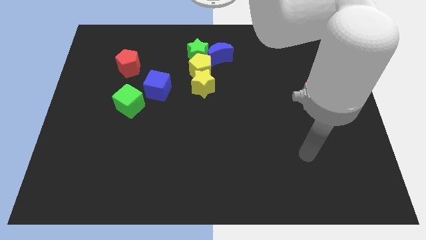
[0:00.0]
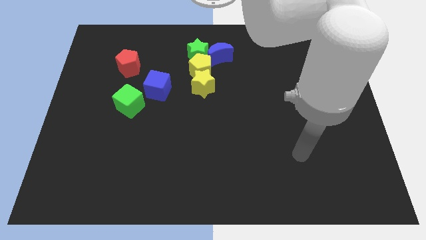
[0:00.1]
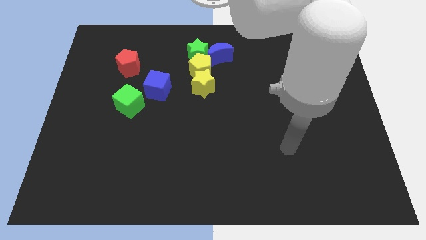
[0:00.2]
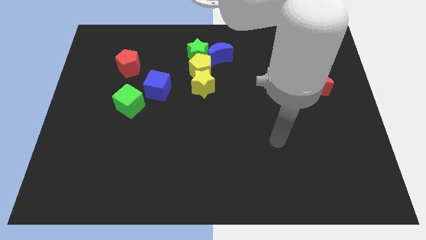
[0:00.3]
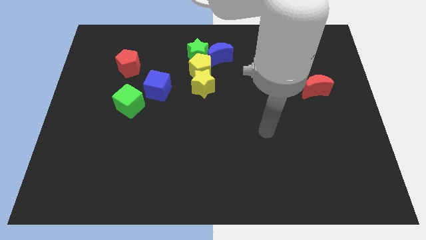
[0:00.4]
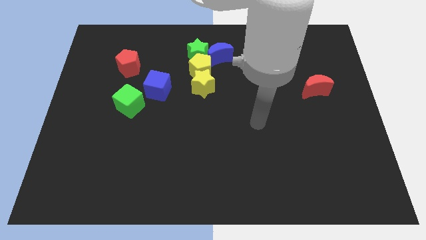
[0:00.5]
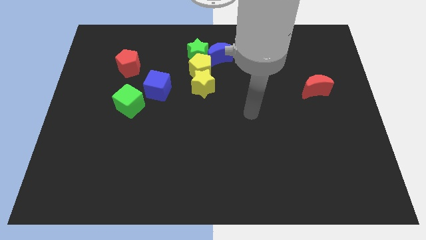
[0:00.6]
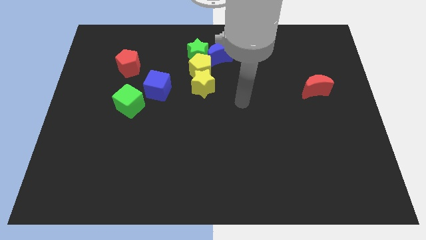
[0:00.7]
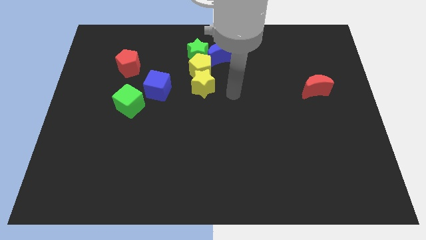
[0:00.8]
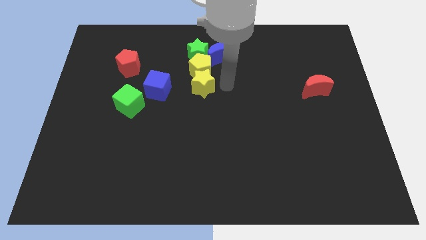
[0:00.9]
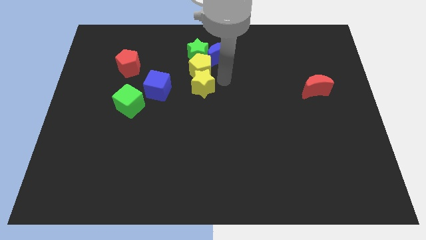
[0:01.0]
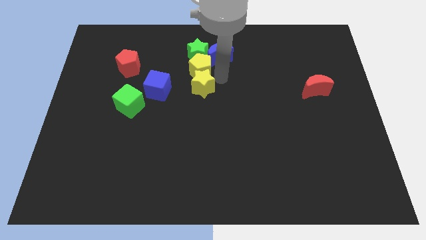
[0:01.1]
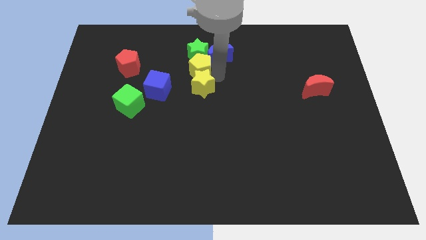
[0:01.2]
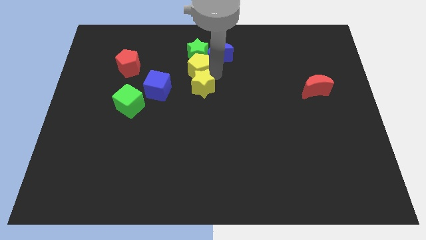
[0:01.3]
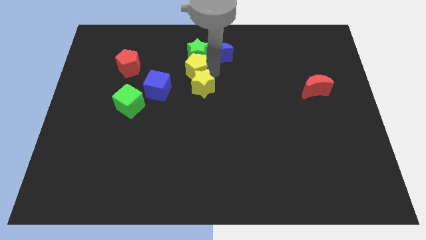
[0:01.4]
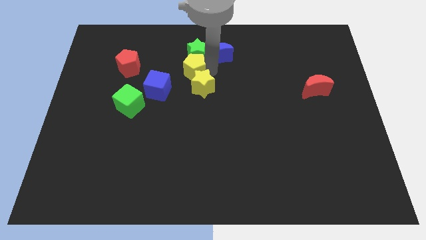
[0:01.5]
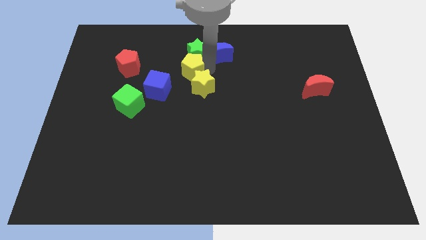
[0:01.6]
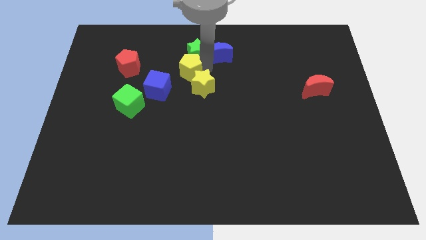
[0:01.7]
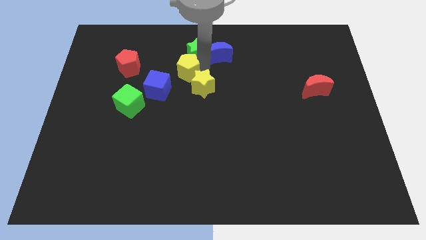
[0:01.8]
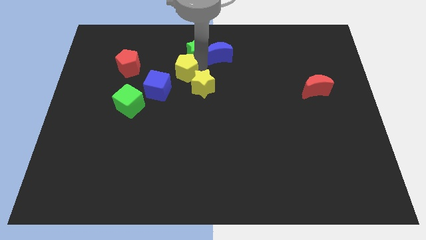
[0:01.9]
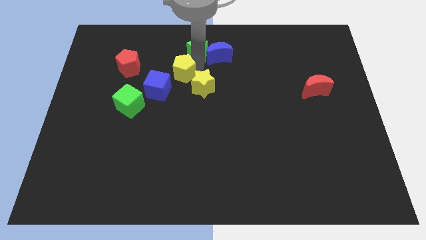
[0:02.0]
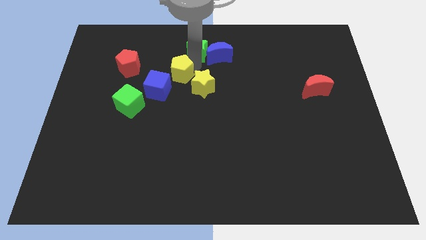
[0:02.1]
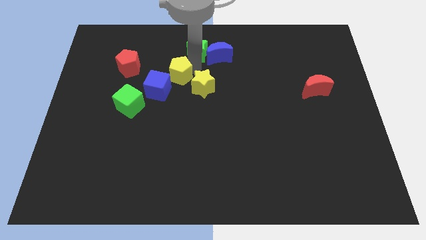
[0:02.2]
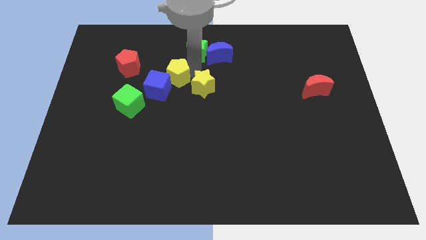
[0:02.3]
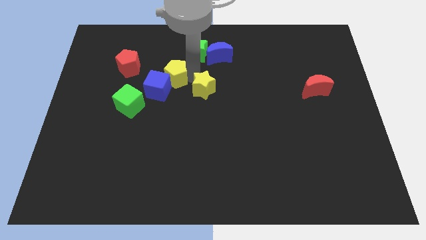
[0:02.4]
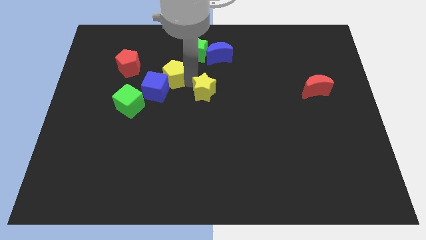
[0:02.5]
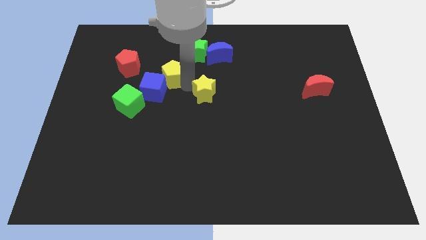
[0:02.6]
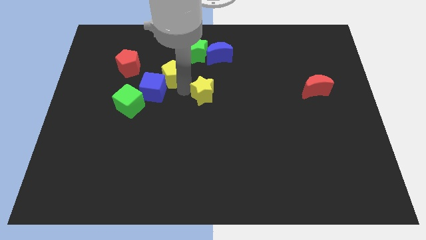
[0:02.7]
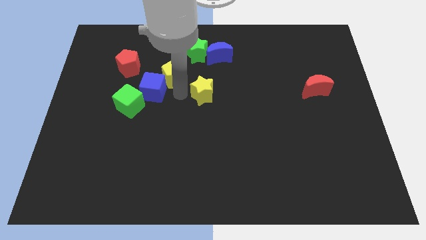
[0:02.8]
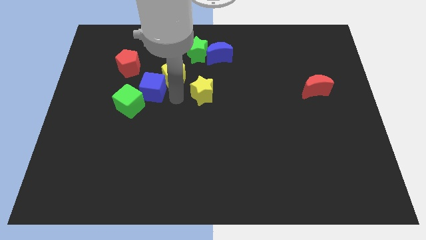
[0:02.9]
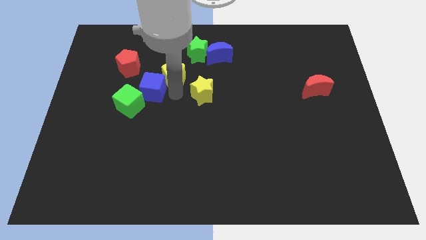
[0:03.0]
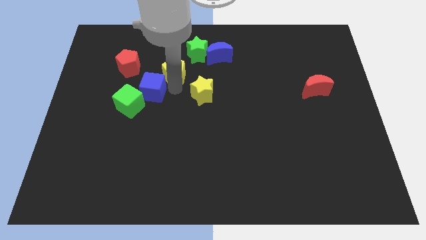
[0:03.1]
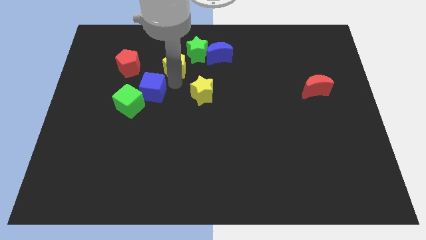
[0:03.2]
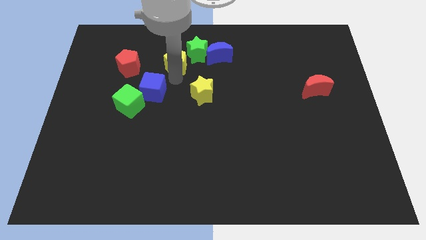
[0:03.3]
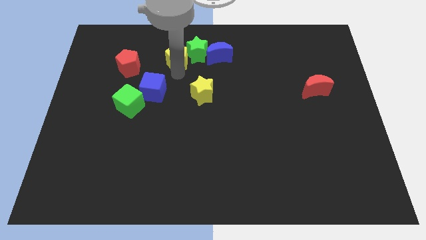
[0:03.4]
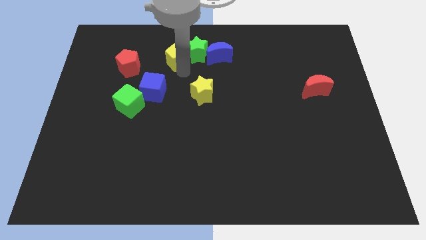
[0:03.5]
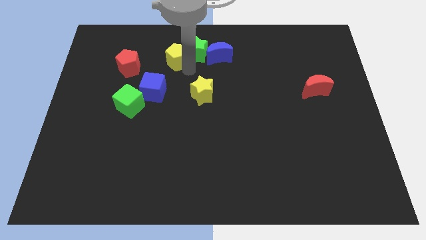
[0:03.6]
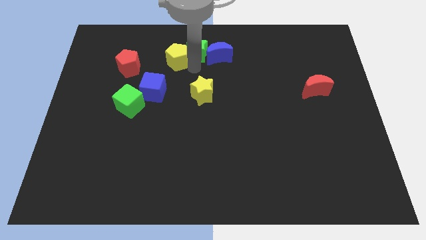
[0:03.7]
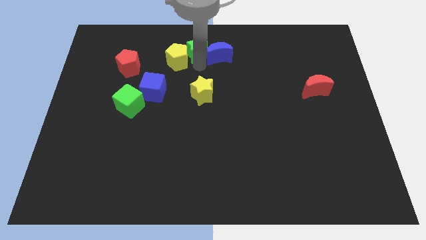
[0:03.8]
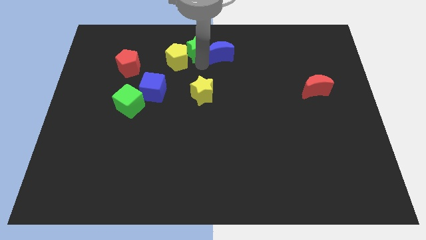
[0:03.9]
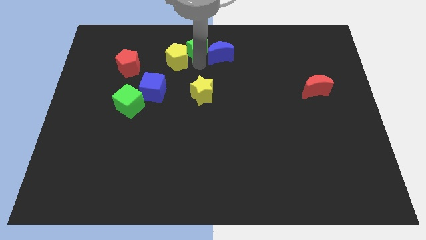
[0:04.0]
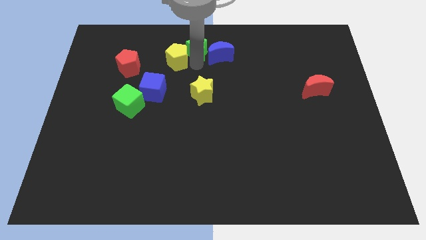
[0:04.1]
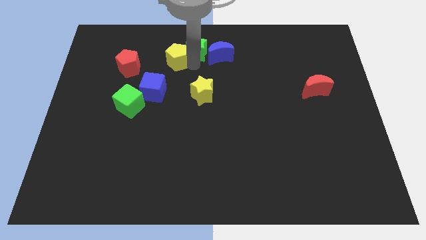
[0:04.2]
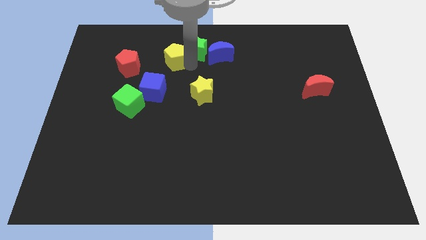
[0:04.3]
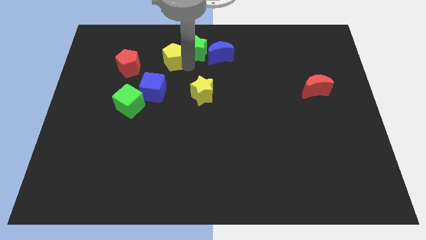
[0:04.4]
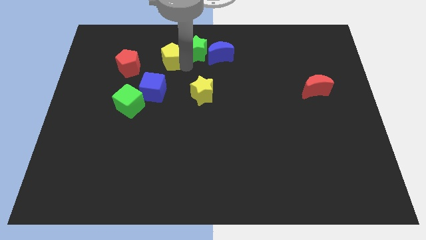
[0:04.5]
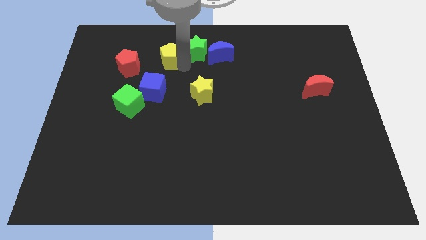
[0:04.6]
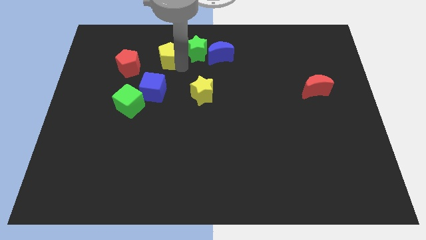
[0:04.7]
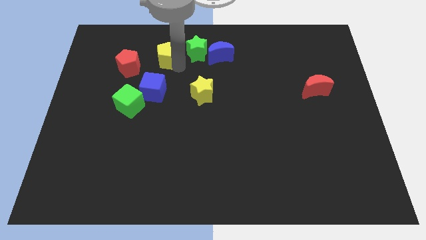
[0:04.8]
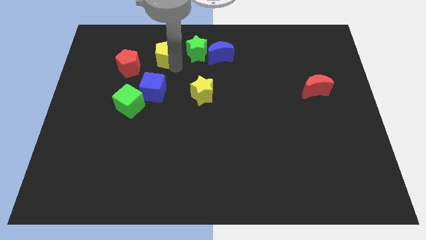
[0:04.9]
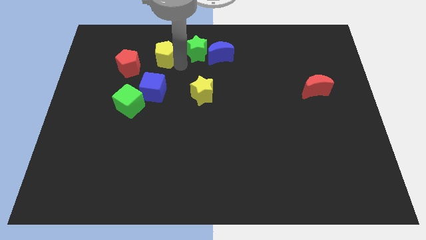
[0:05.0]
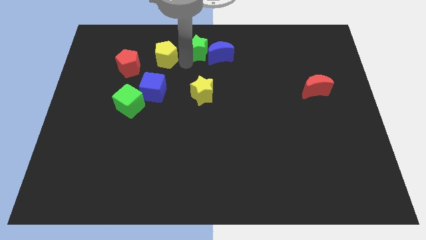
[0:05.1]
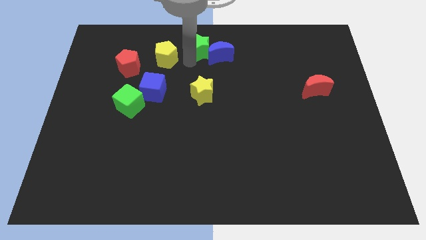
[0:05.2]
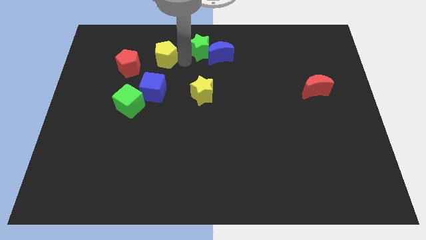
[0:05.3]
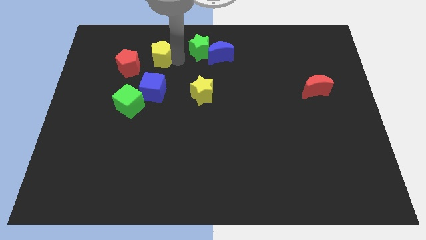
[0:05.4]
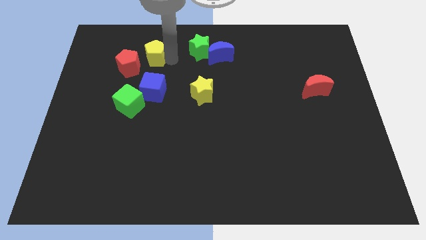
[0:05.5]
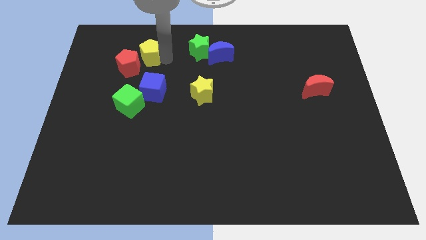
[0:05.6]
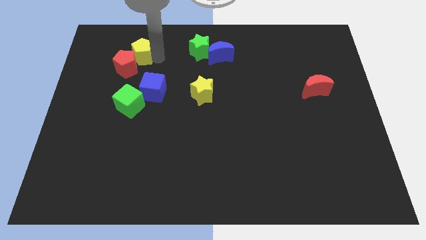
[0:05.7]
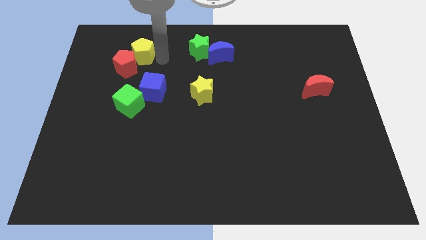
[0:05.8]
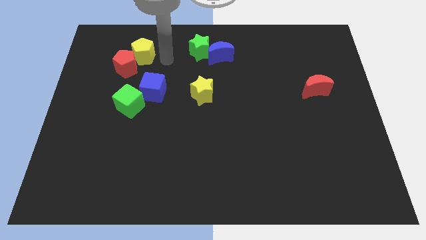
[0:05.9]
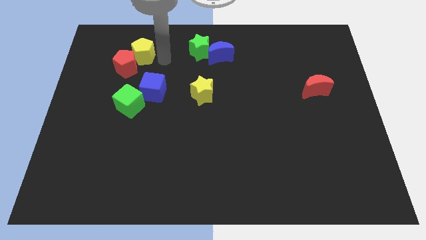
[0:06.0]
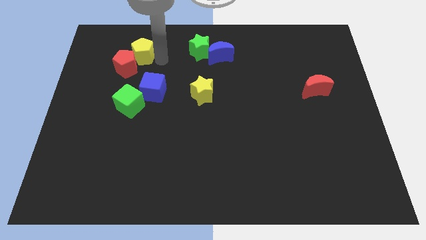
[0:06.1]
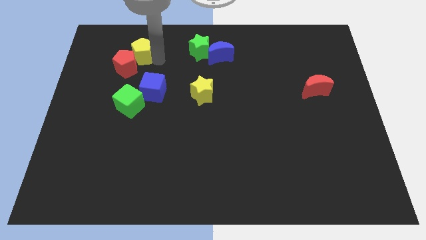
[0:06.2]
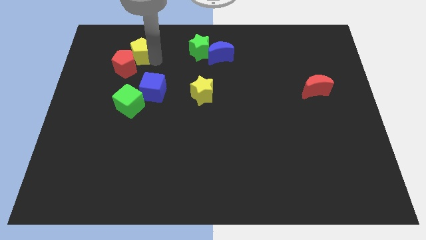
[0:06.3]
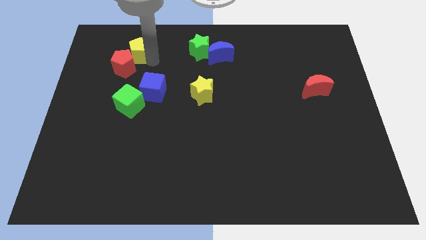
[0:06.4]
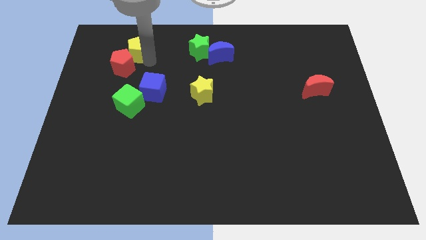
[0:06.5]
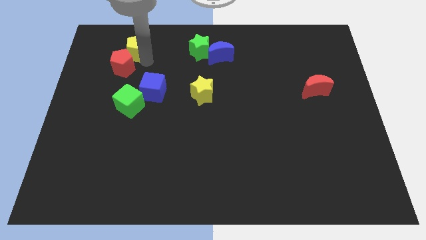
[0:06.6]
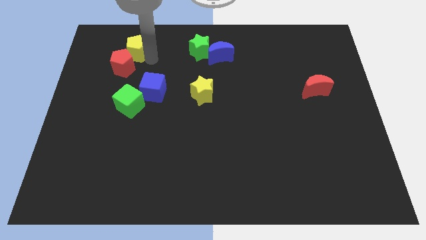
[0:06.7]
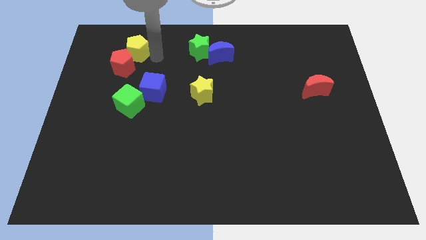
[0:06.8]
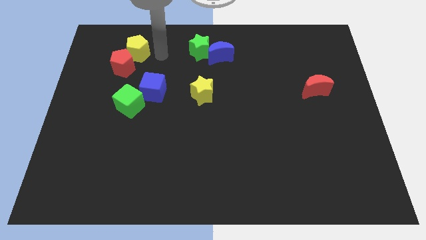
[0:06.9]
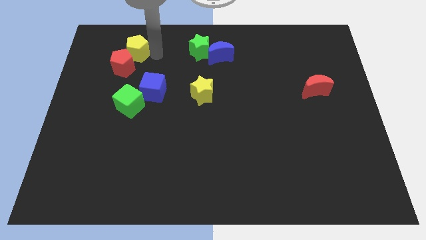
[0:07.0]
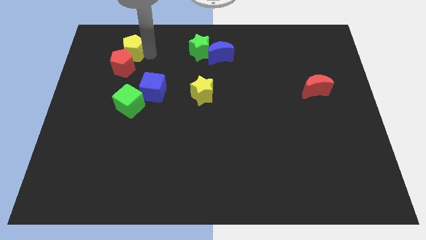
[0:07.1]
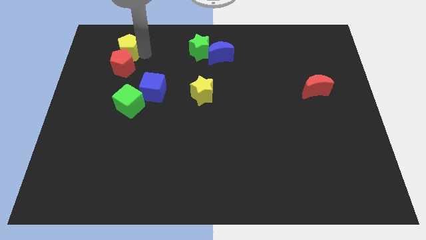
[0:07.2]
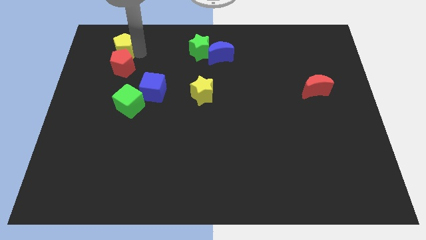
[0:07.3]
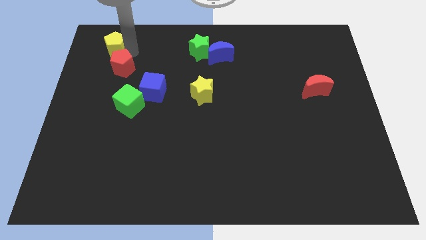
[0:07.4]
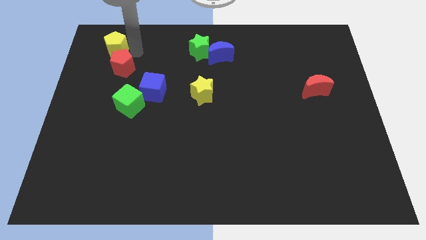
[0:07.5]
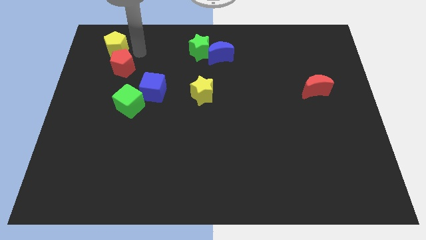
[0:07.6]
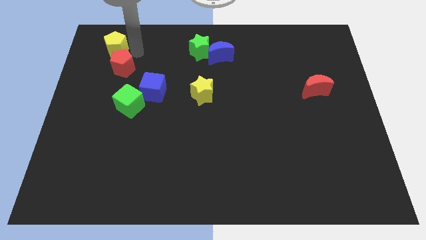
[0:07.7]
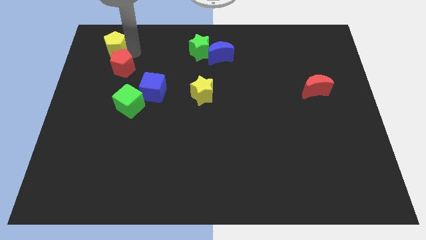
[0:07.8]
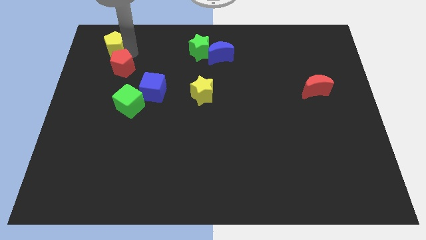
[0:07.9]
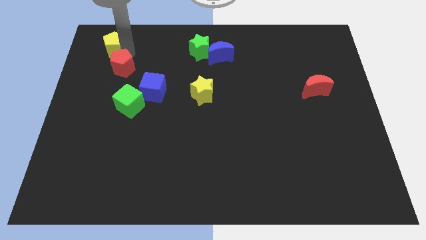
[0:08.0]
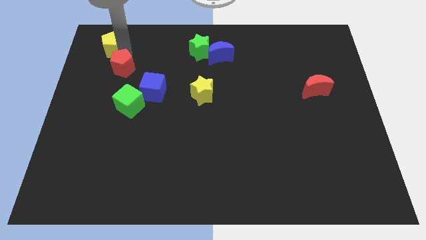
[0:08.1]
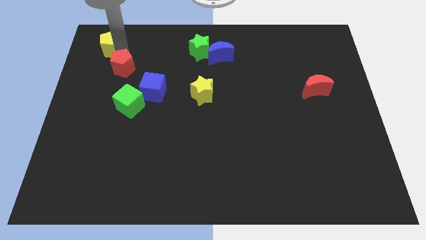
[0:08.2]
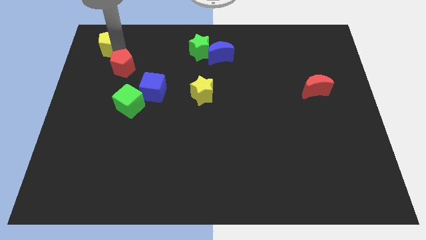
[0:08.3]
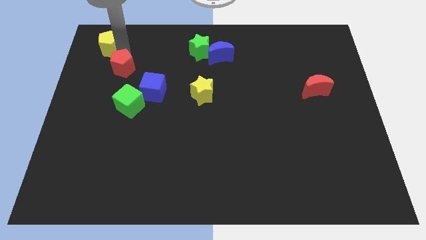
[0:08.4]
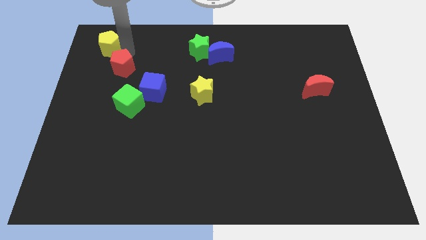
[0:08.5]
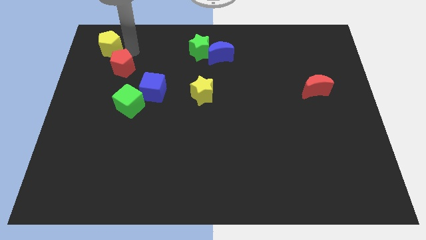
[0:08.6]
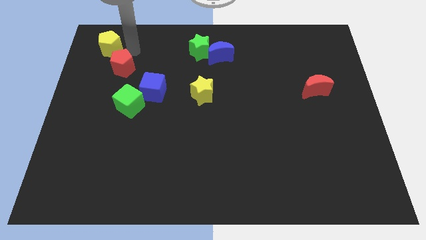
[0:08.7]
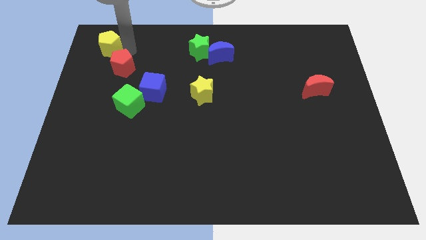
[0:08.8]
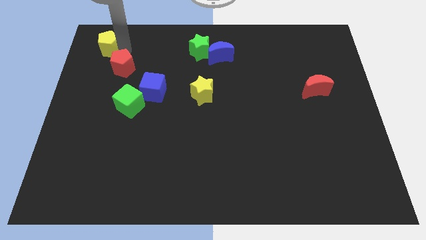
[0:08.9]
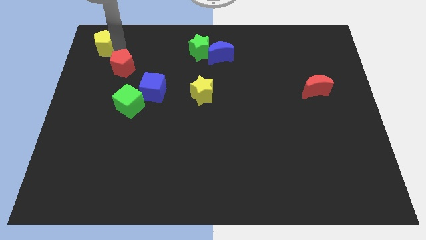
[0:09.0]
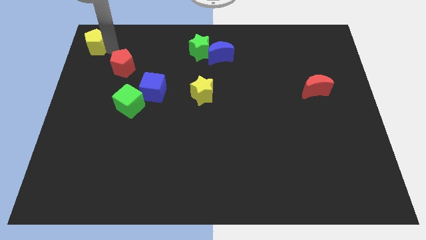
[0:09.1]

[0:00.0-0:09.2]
slide the yellow pentagon to the upper left corner
